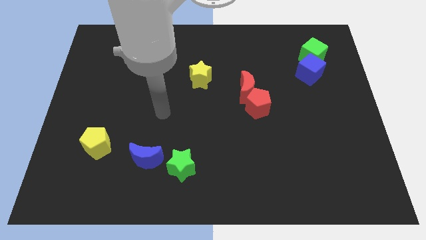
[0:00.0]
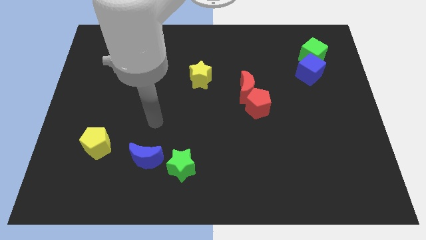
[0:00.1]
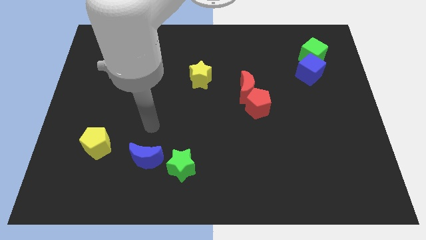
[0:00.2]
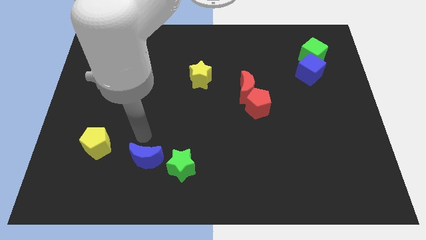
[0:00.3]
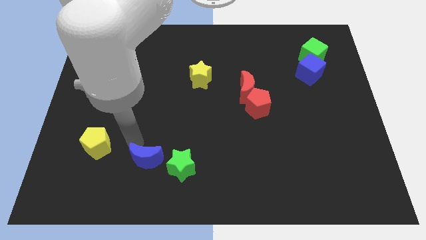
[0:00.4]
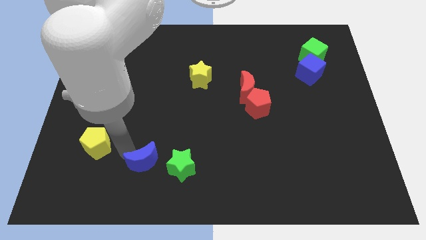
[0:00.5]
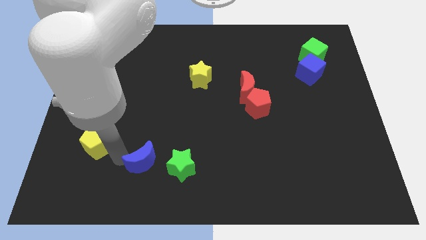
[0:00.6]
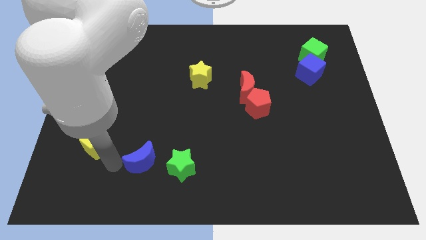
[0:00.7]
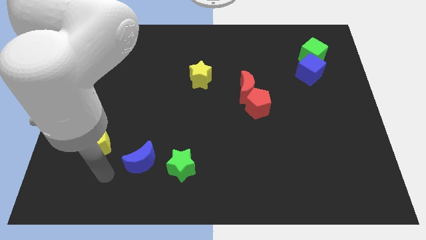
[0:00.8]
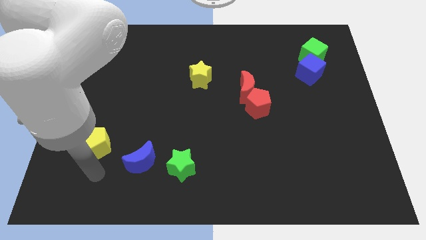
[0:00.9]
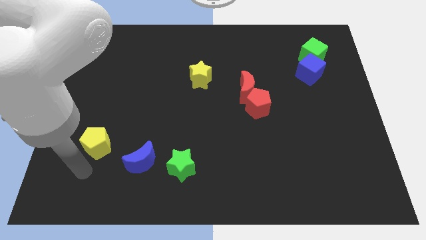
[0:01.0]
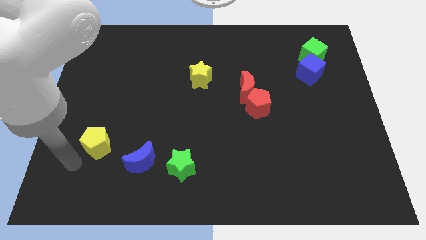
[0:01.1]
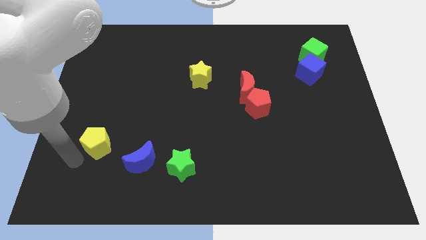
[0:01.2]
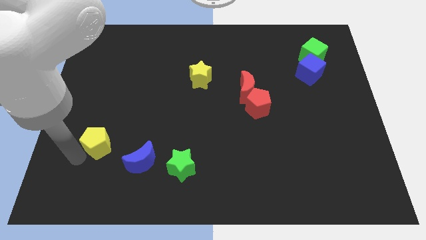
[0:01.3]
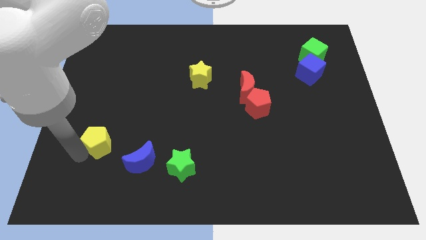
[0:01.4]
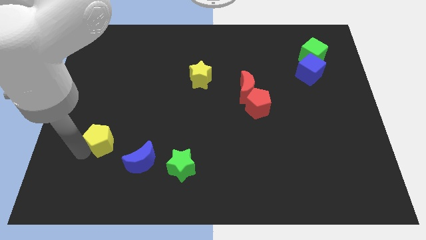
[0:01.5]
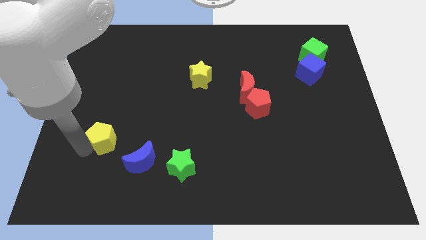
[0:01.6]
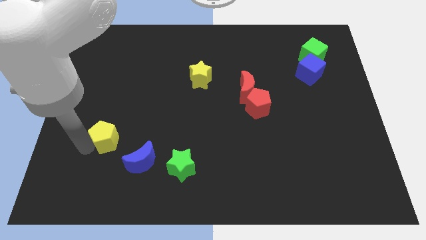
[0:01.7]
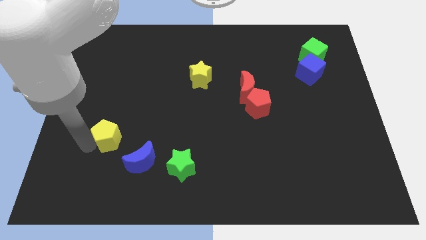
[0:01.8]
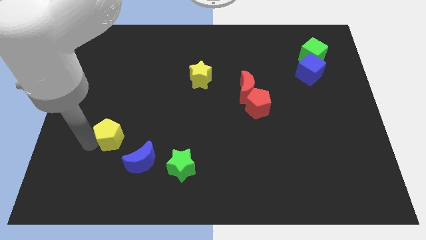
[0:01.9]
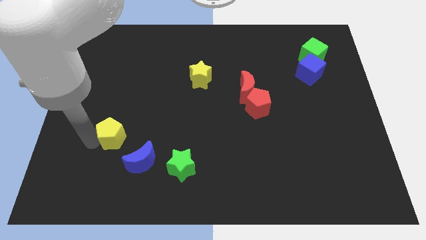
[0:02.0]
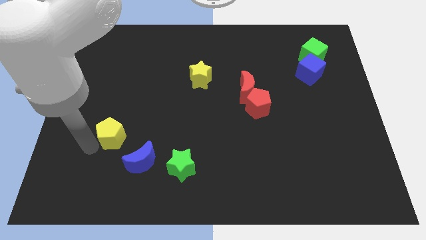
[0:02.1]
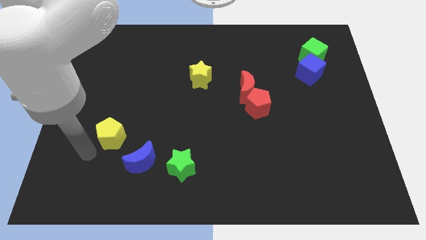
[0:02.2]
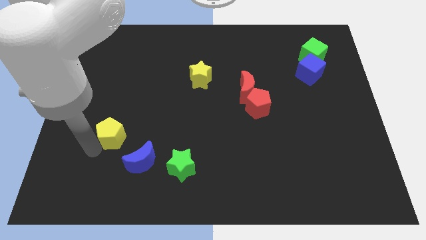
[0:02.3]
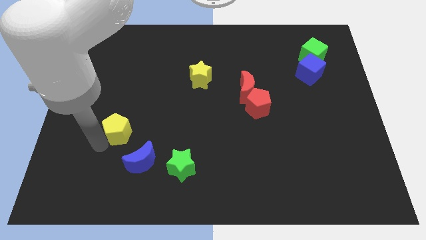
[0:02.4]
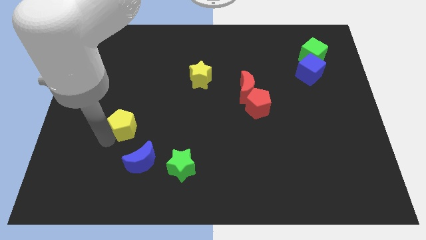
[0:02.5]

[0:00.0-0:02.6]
slightly move the yellow pentagon up and to the right

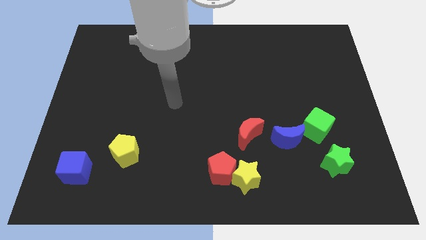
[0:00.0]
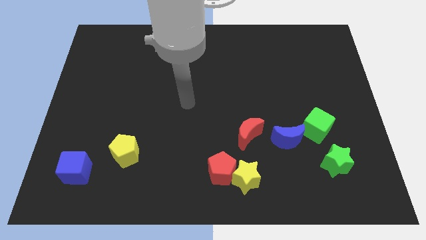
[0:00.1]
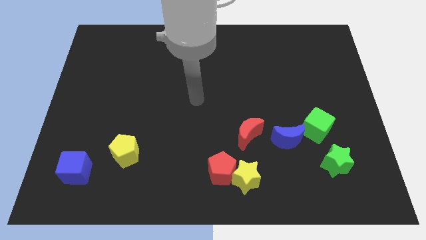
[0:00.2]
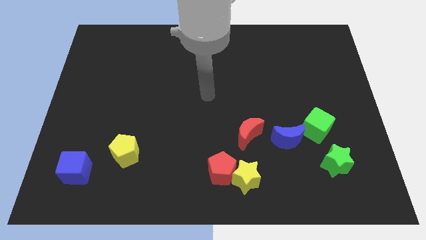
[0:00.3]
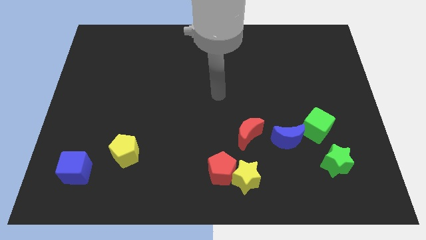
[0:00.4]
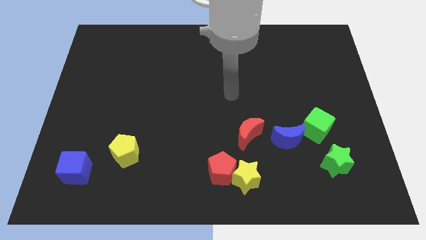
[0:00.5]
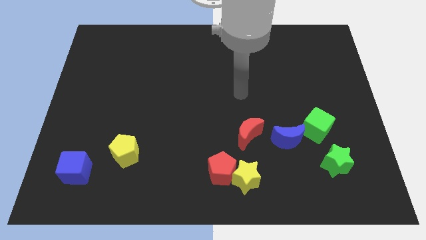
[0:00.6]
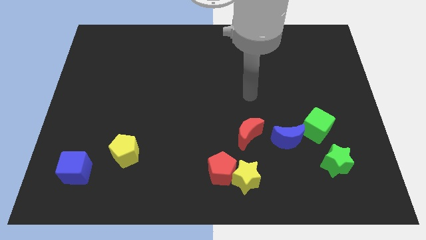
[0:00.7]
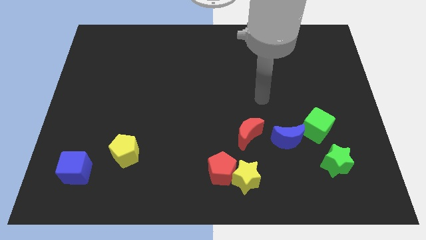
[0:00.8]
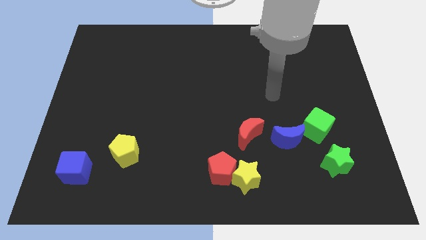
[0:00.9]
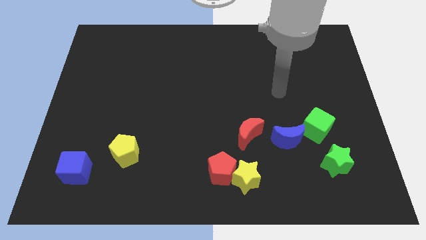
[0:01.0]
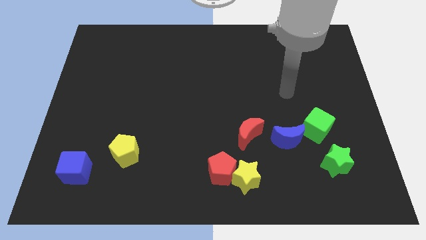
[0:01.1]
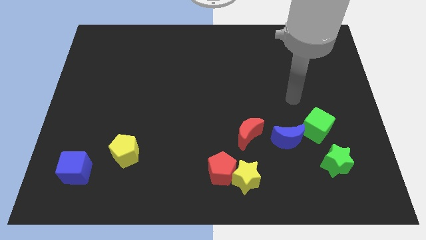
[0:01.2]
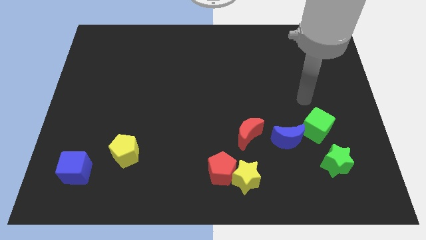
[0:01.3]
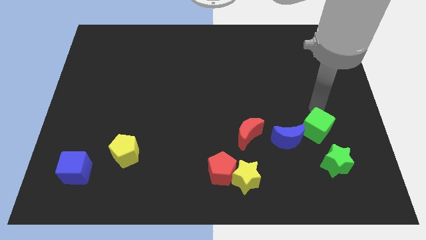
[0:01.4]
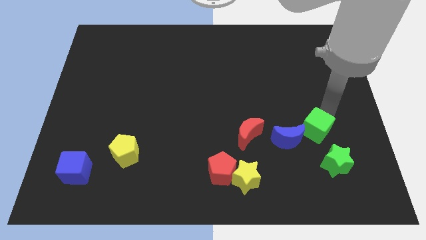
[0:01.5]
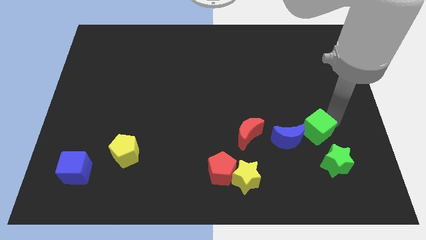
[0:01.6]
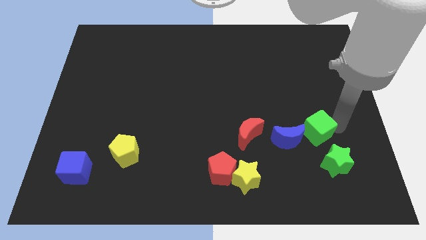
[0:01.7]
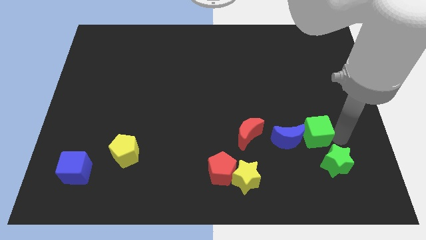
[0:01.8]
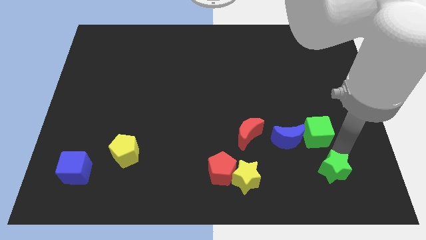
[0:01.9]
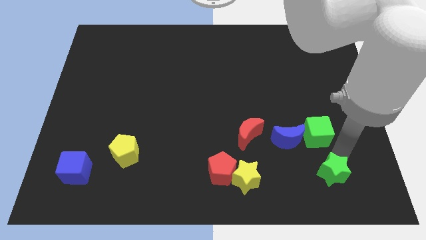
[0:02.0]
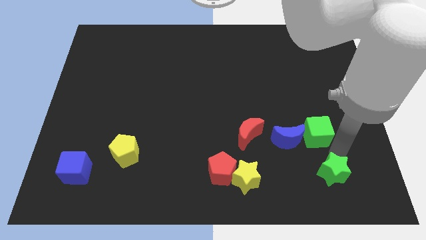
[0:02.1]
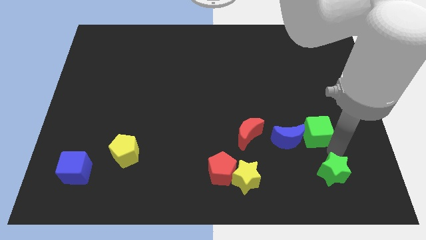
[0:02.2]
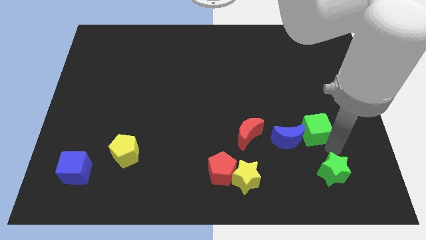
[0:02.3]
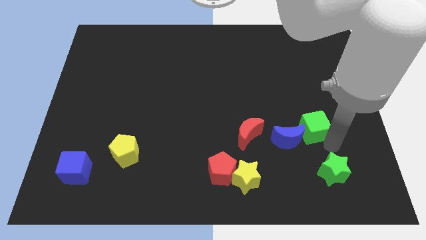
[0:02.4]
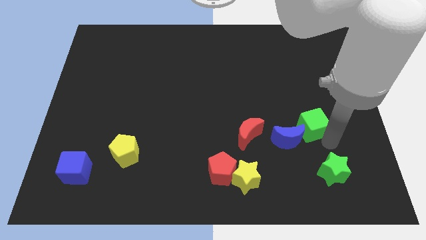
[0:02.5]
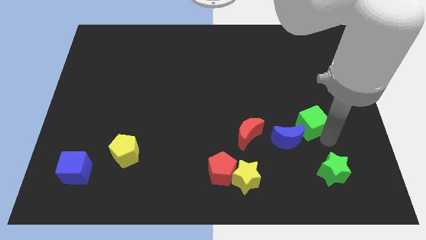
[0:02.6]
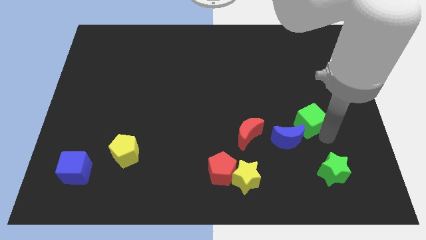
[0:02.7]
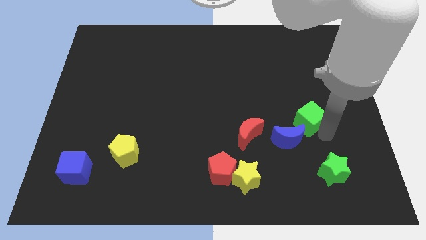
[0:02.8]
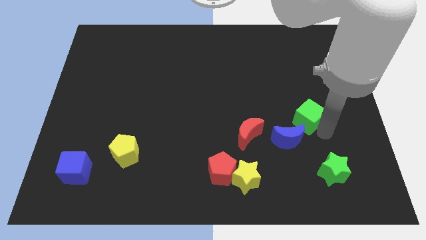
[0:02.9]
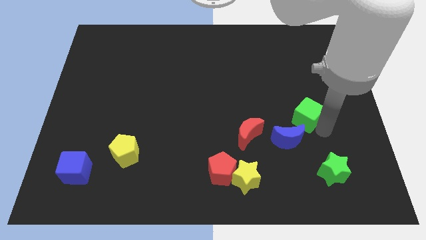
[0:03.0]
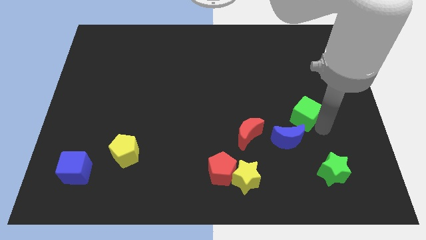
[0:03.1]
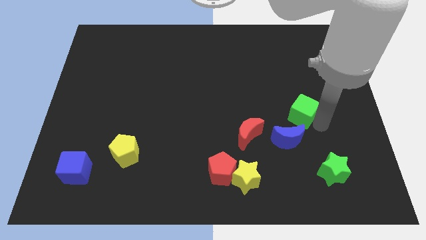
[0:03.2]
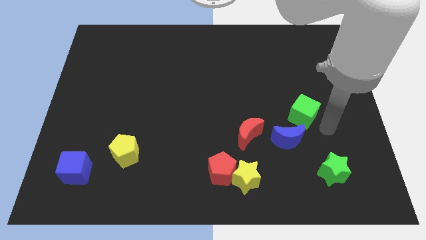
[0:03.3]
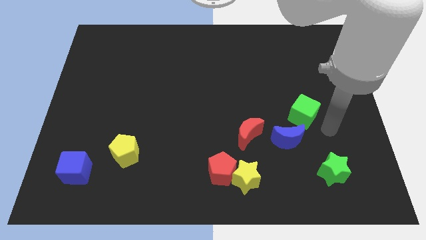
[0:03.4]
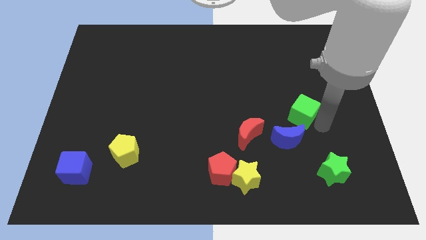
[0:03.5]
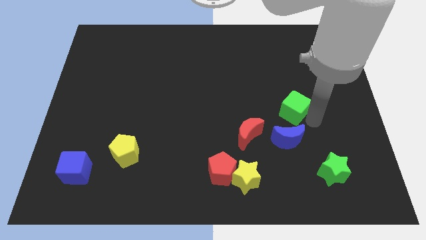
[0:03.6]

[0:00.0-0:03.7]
slide the green cube a bit upwards and to the left

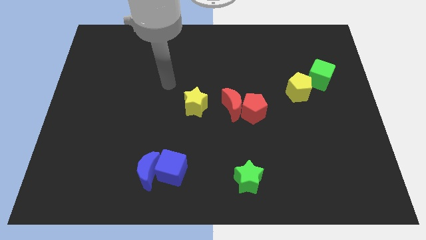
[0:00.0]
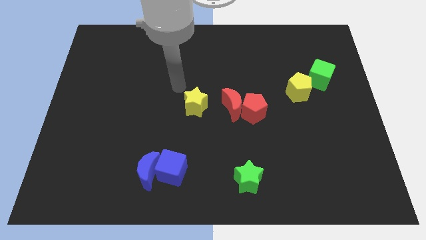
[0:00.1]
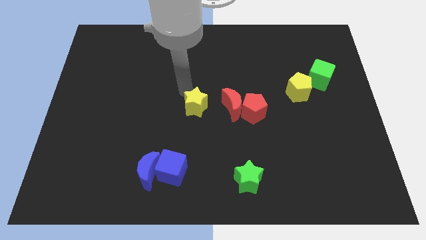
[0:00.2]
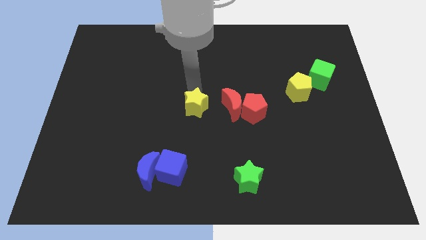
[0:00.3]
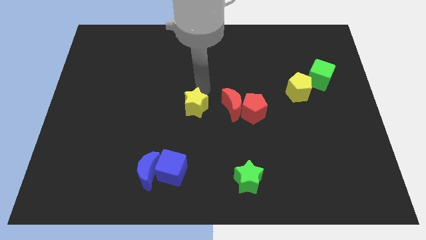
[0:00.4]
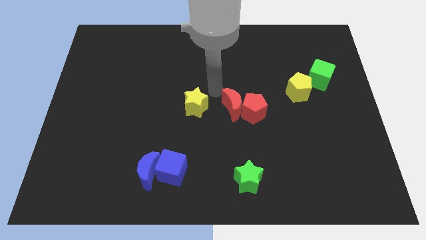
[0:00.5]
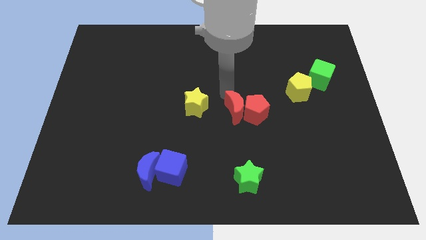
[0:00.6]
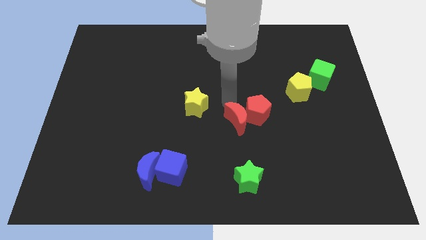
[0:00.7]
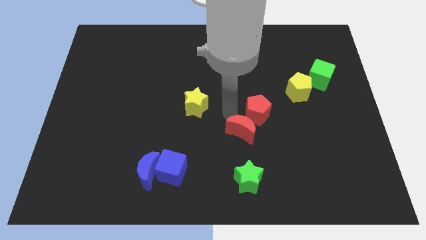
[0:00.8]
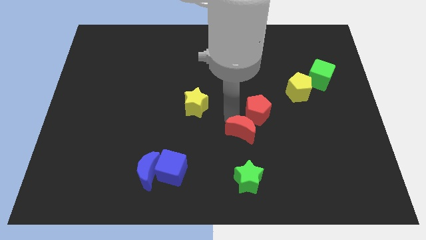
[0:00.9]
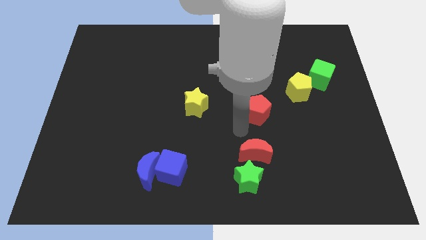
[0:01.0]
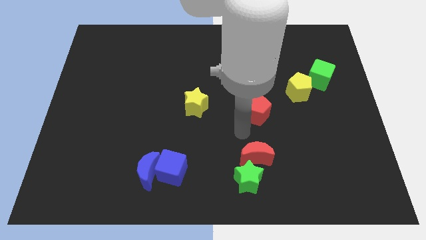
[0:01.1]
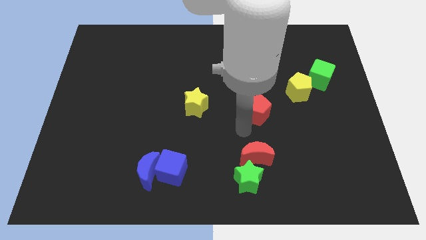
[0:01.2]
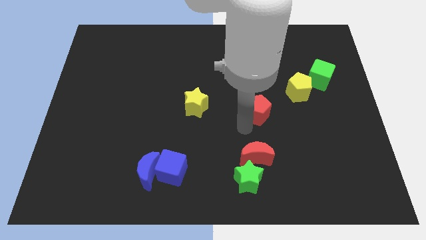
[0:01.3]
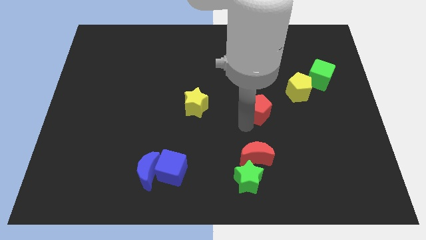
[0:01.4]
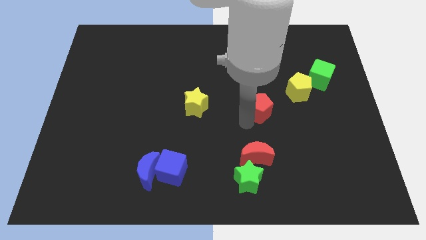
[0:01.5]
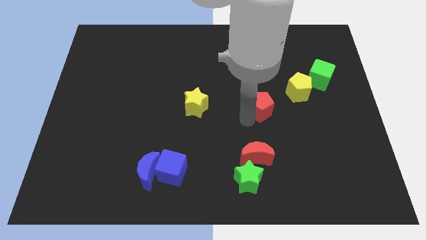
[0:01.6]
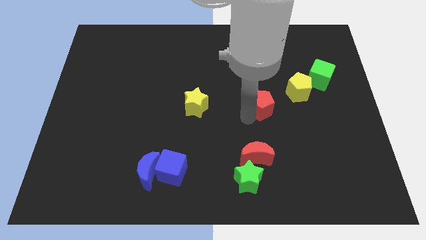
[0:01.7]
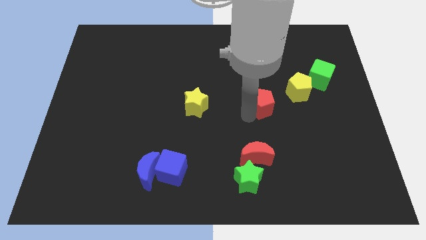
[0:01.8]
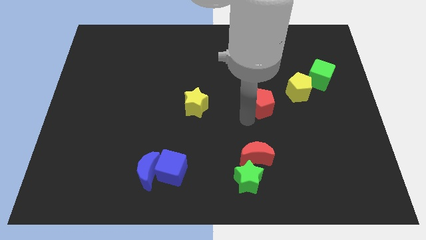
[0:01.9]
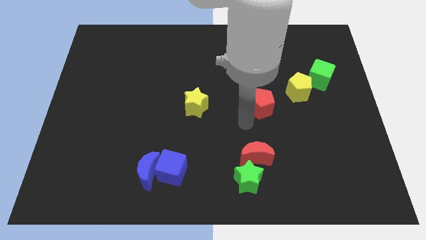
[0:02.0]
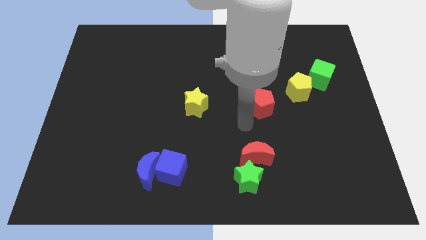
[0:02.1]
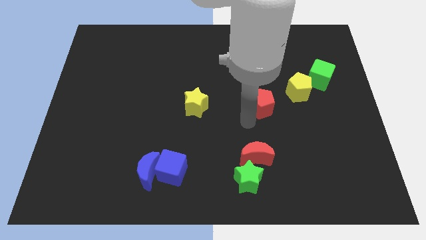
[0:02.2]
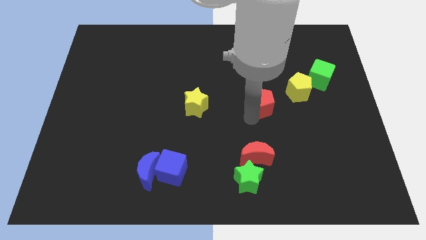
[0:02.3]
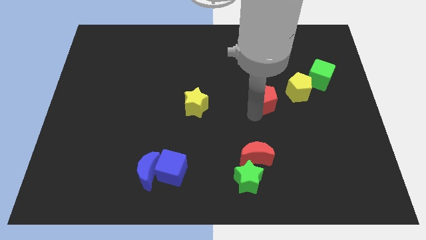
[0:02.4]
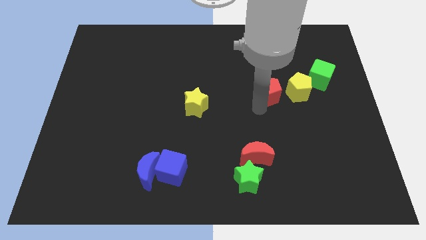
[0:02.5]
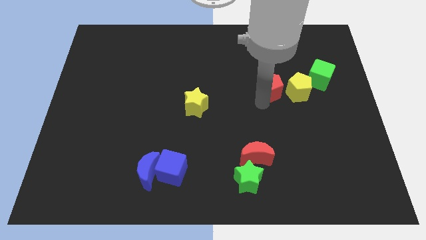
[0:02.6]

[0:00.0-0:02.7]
move the red pentagon a little upwards and then to the right
